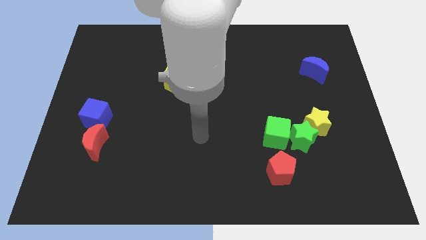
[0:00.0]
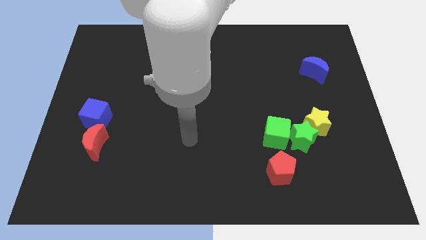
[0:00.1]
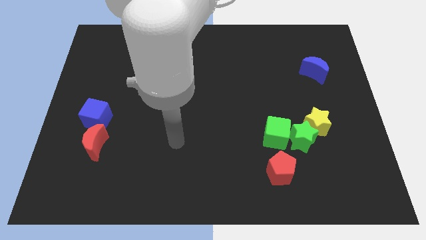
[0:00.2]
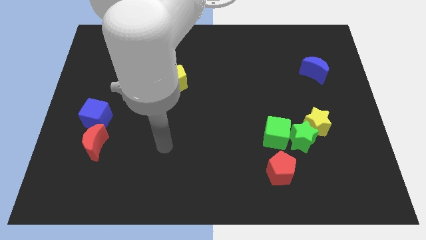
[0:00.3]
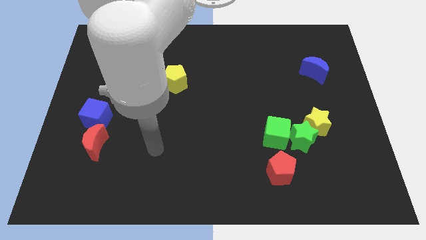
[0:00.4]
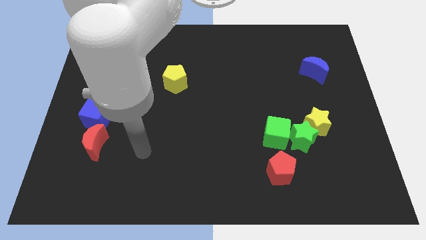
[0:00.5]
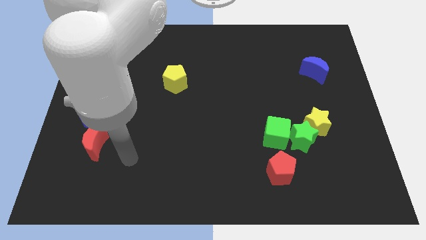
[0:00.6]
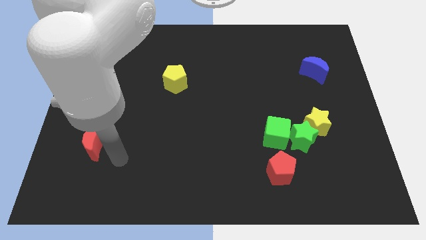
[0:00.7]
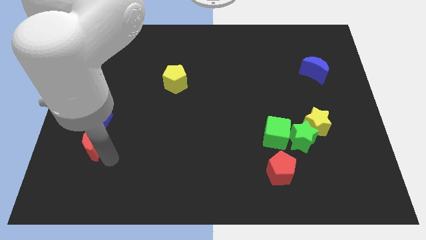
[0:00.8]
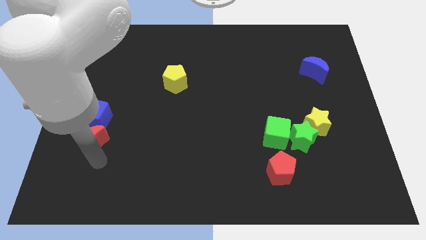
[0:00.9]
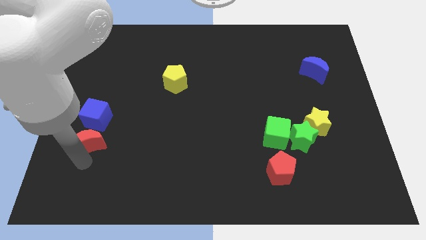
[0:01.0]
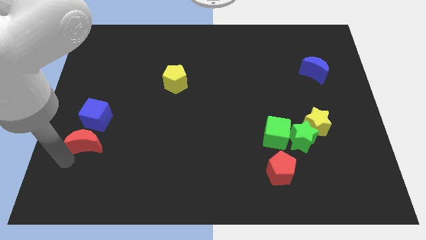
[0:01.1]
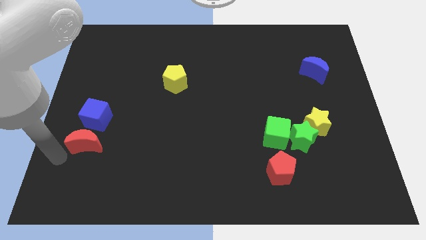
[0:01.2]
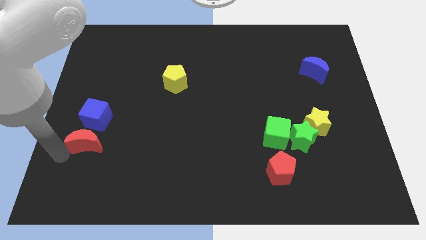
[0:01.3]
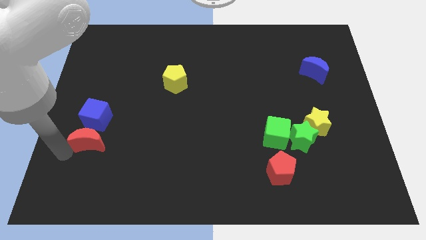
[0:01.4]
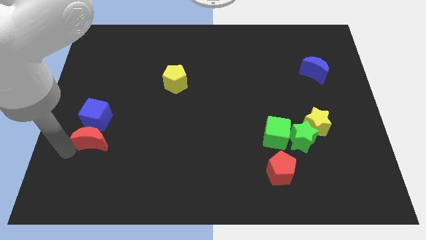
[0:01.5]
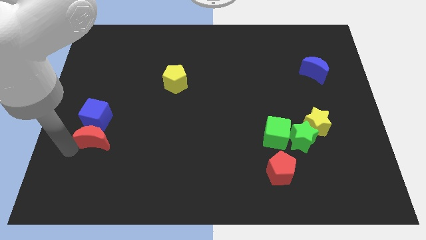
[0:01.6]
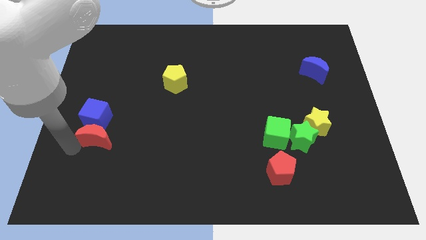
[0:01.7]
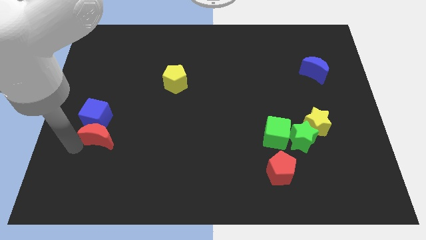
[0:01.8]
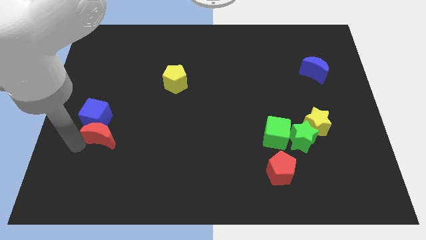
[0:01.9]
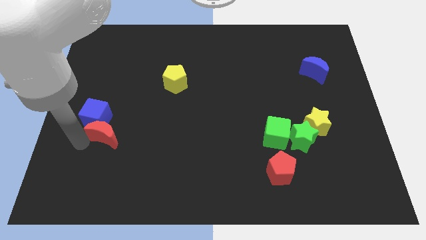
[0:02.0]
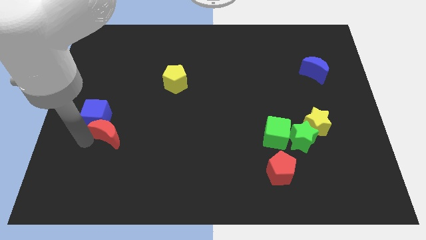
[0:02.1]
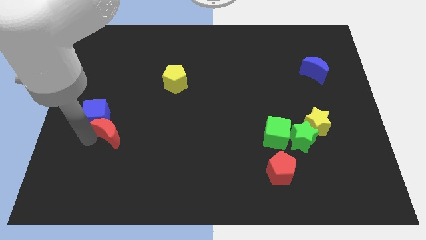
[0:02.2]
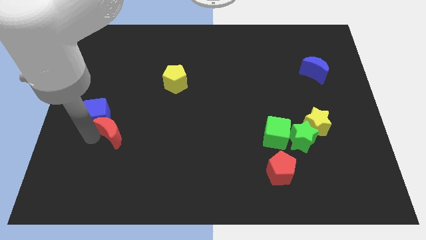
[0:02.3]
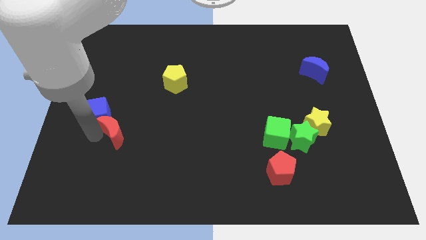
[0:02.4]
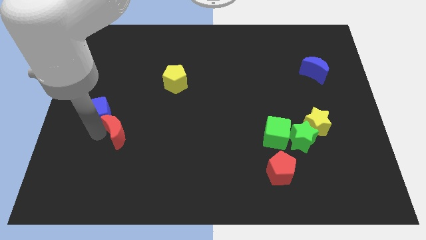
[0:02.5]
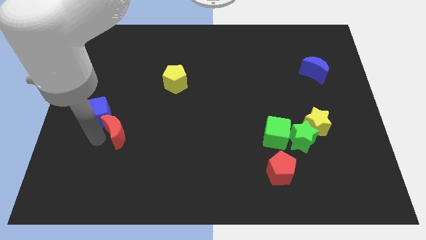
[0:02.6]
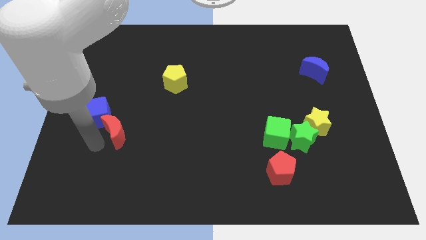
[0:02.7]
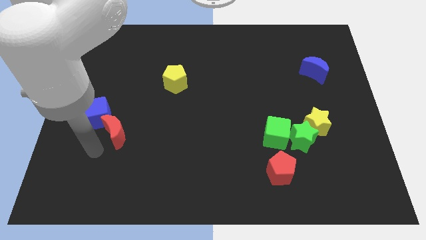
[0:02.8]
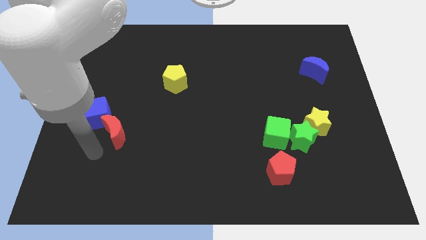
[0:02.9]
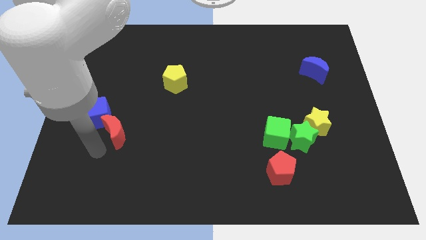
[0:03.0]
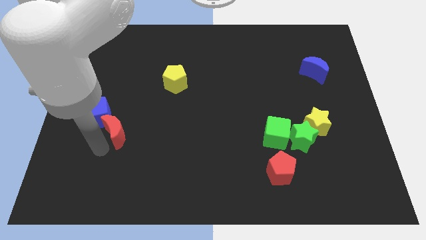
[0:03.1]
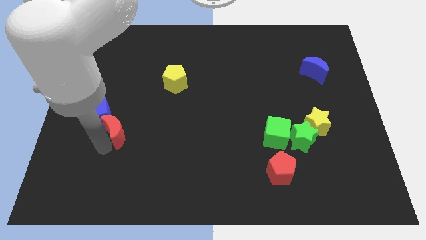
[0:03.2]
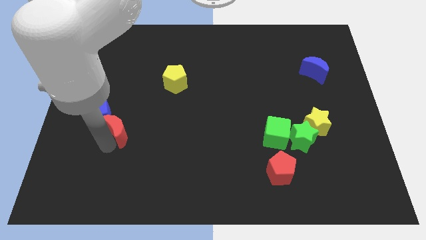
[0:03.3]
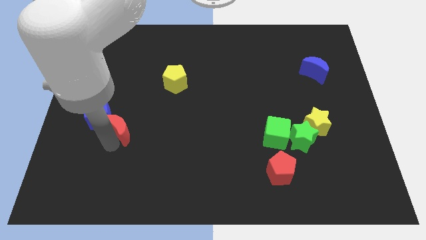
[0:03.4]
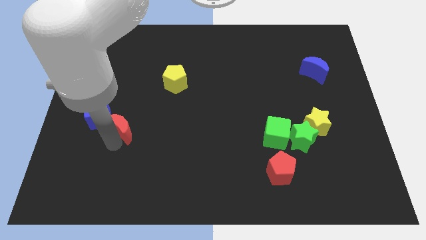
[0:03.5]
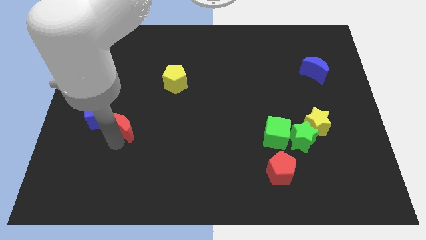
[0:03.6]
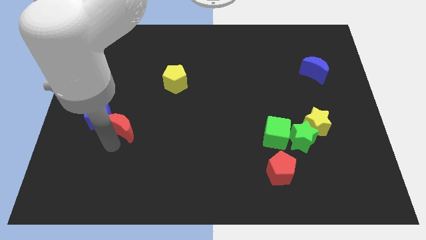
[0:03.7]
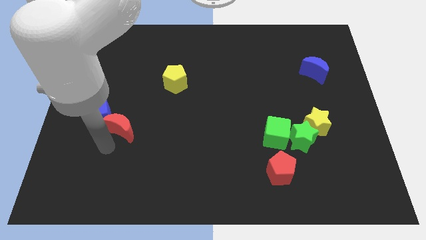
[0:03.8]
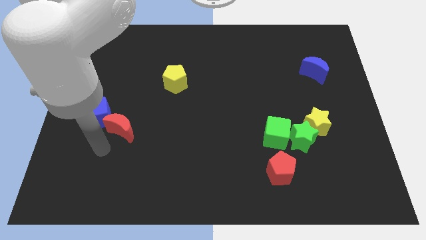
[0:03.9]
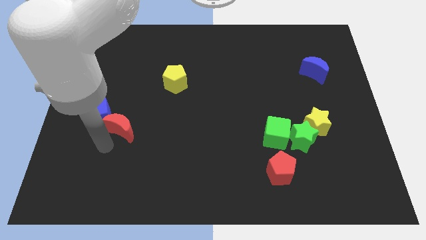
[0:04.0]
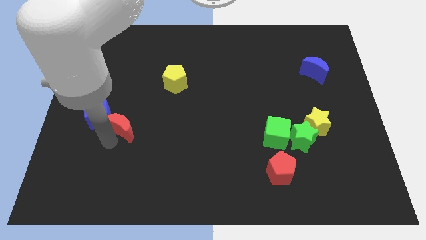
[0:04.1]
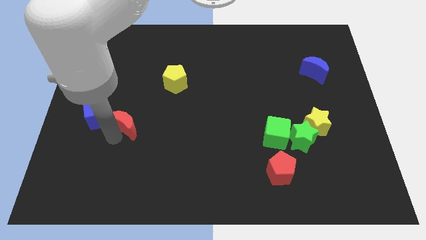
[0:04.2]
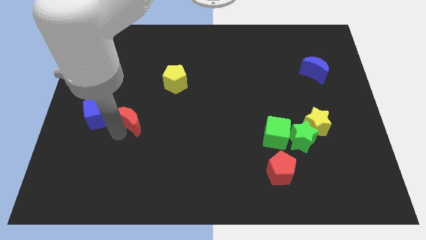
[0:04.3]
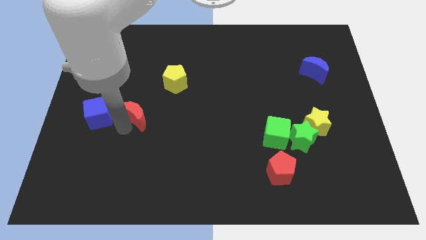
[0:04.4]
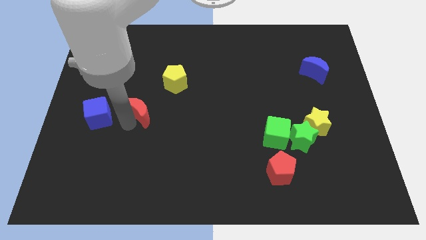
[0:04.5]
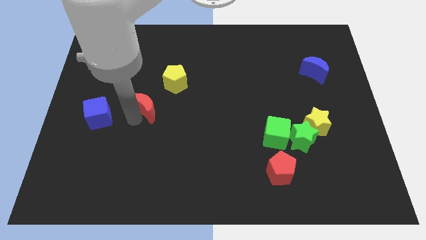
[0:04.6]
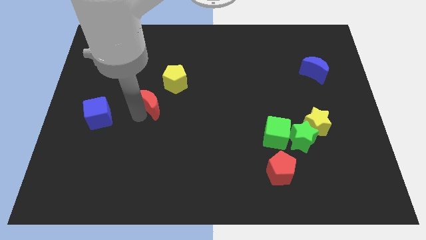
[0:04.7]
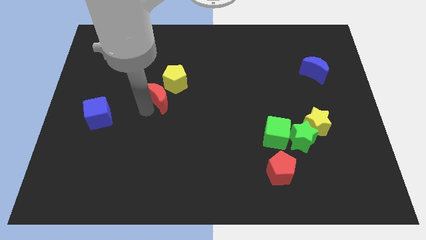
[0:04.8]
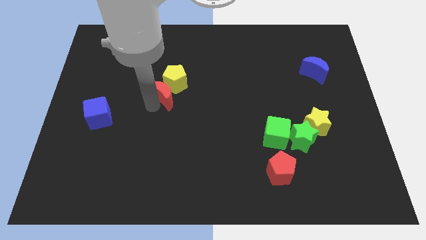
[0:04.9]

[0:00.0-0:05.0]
slide the red moon next to the yellow pentagon

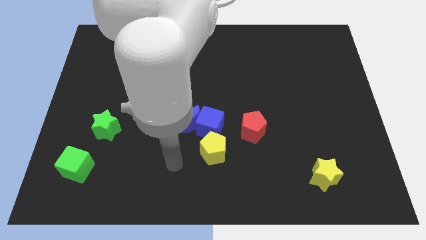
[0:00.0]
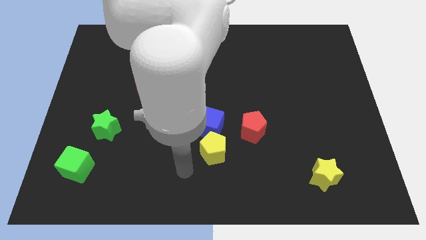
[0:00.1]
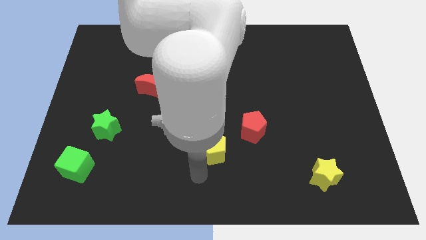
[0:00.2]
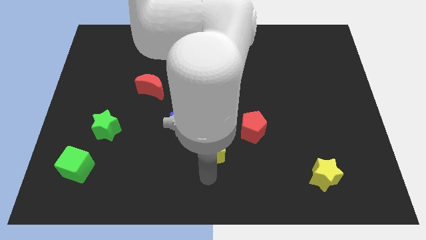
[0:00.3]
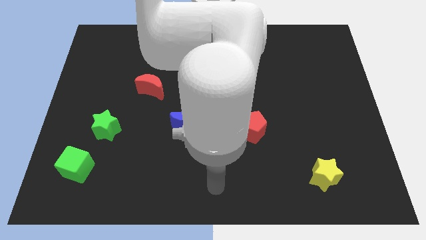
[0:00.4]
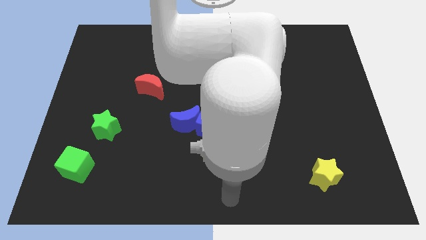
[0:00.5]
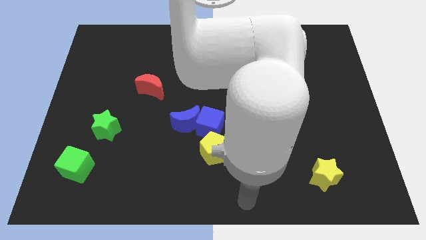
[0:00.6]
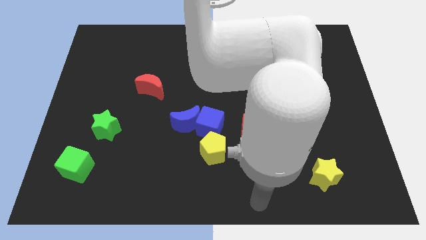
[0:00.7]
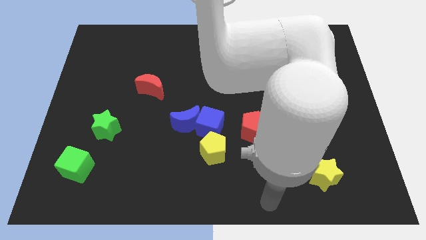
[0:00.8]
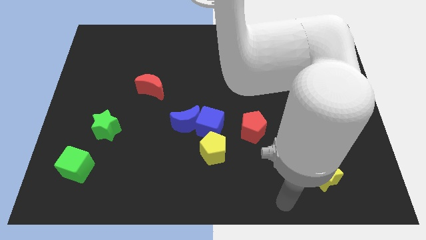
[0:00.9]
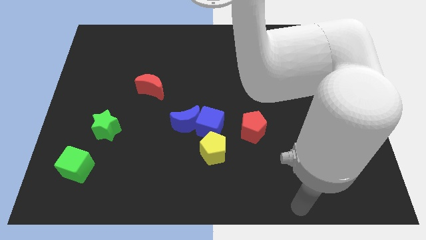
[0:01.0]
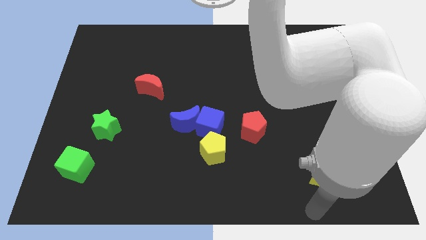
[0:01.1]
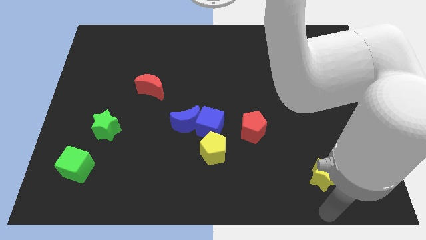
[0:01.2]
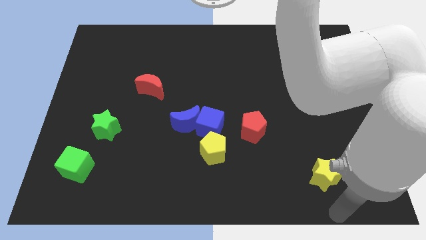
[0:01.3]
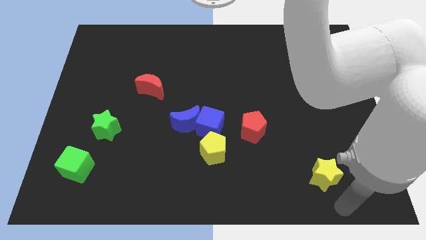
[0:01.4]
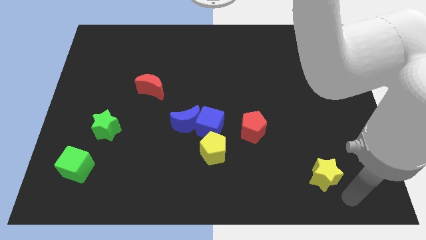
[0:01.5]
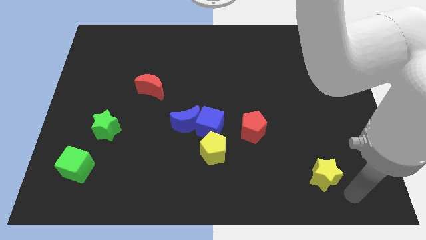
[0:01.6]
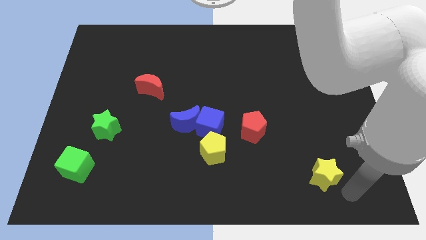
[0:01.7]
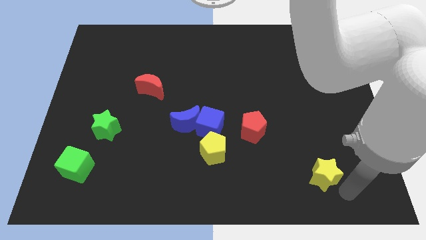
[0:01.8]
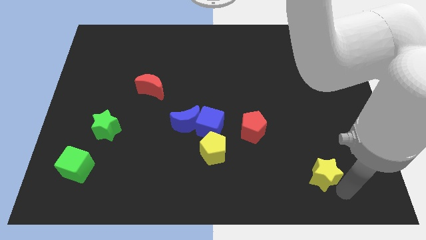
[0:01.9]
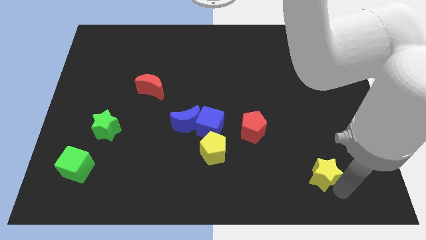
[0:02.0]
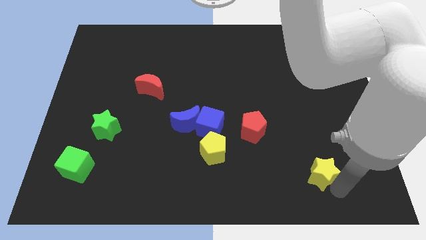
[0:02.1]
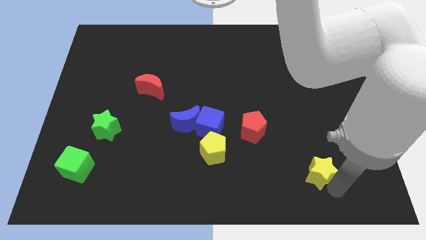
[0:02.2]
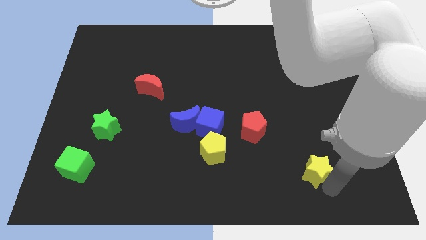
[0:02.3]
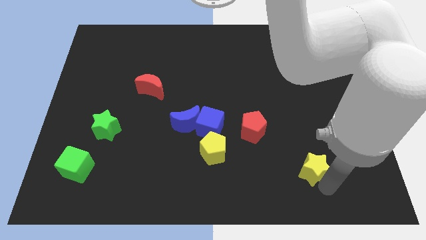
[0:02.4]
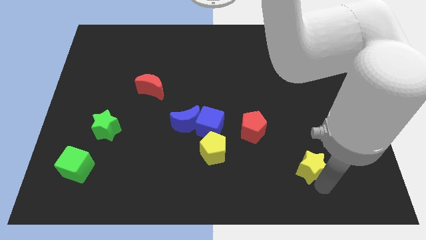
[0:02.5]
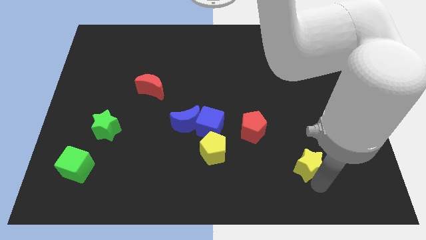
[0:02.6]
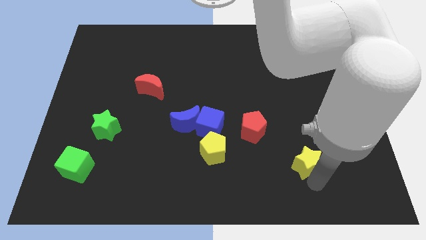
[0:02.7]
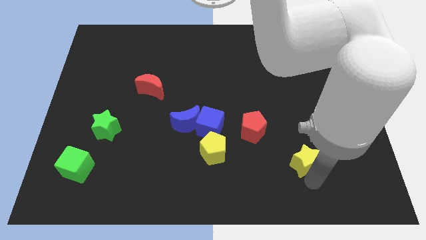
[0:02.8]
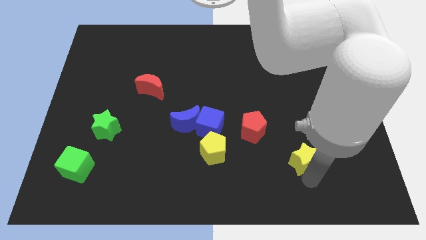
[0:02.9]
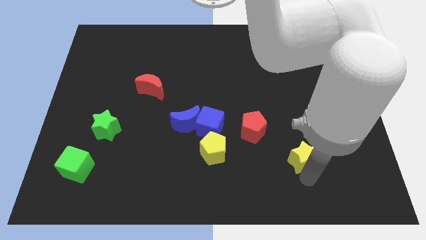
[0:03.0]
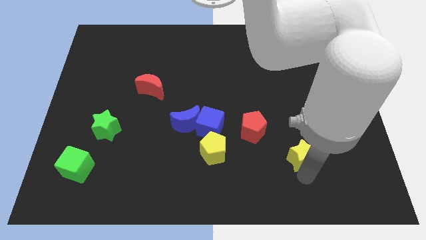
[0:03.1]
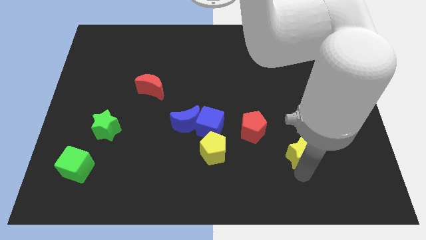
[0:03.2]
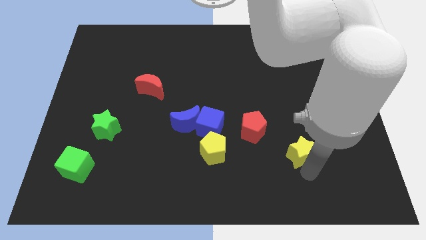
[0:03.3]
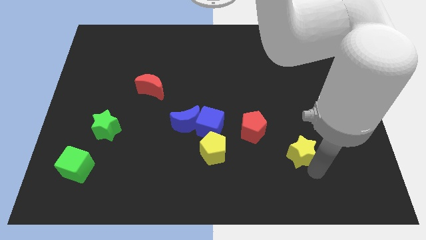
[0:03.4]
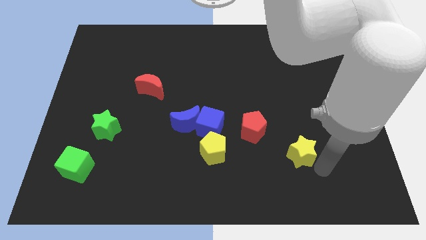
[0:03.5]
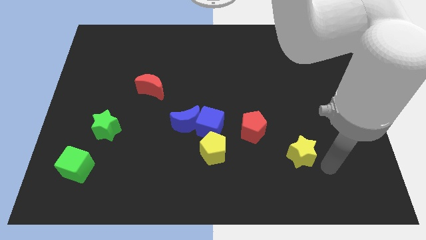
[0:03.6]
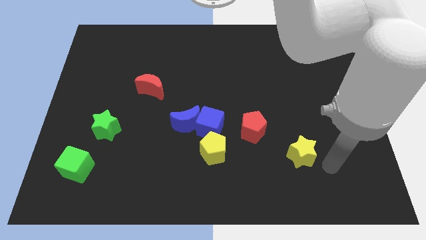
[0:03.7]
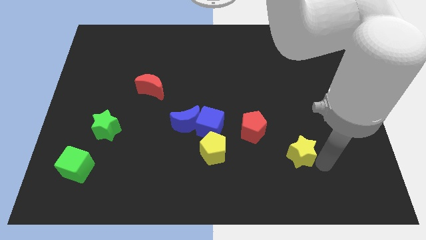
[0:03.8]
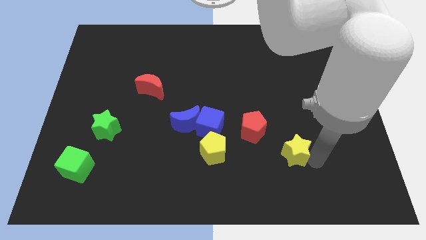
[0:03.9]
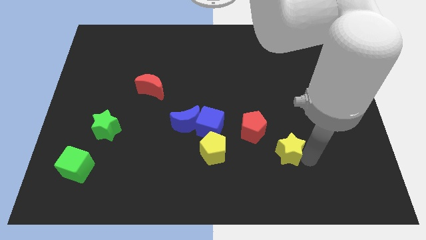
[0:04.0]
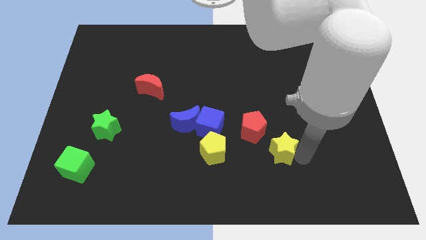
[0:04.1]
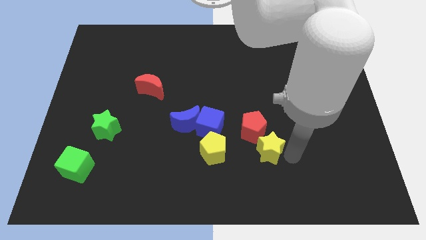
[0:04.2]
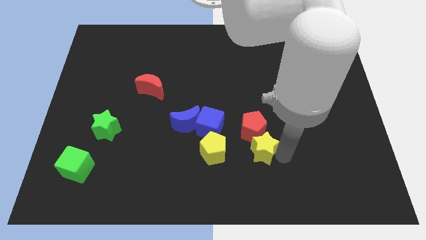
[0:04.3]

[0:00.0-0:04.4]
slide the yellow star next to the red pentagon
